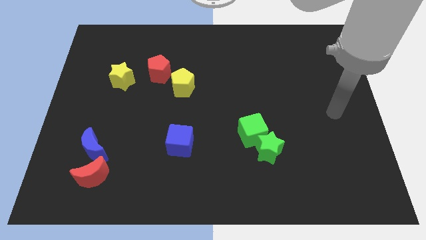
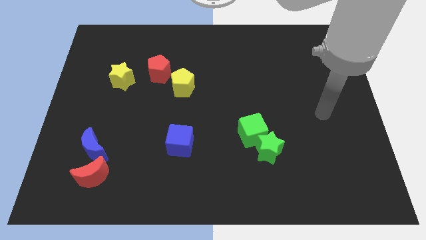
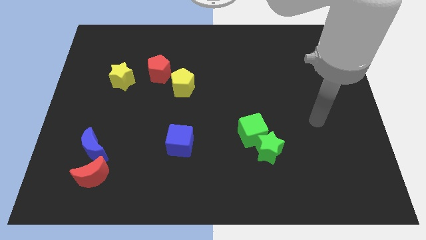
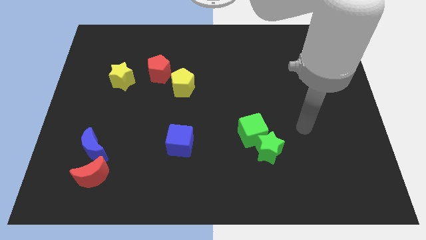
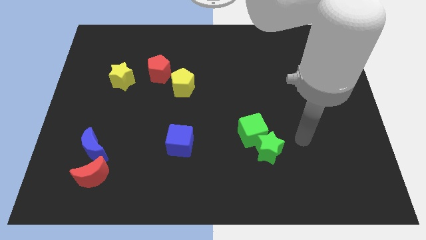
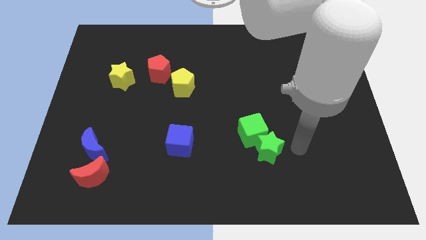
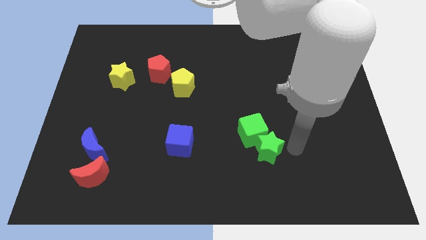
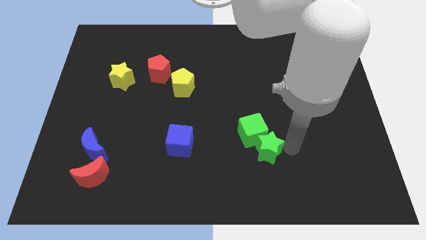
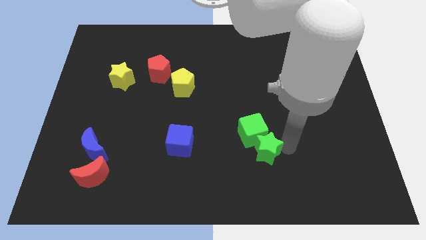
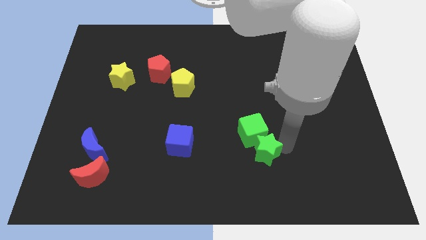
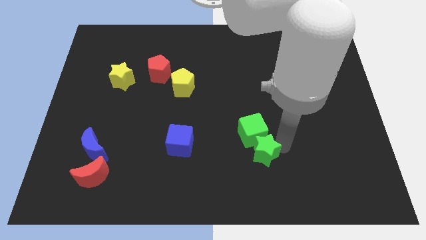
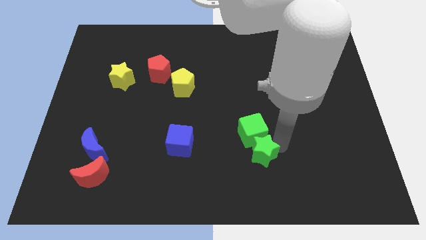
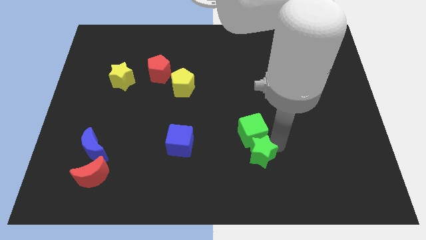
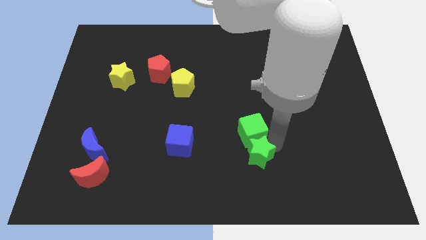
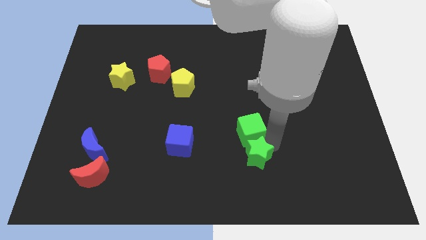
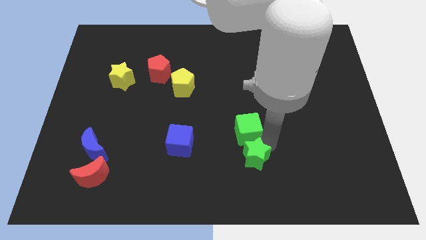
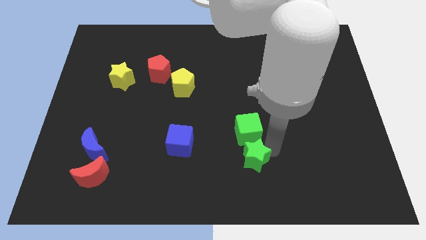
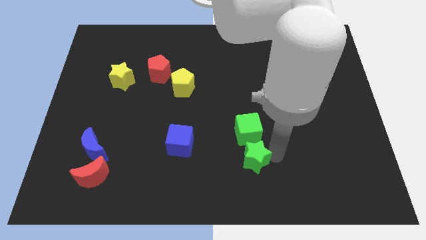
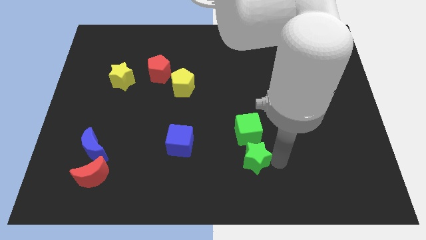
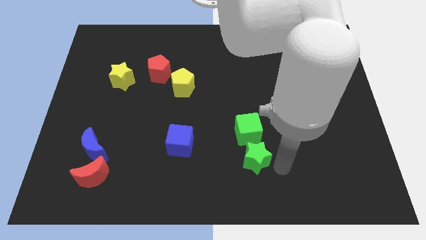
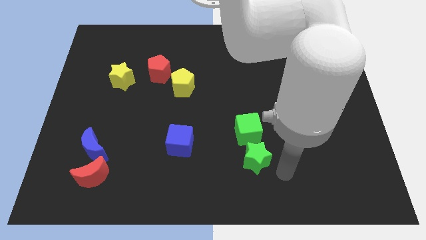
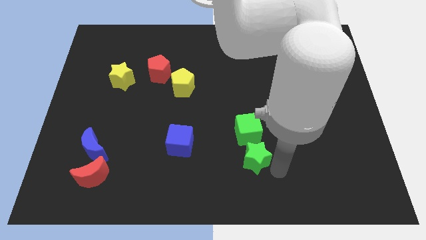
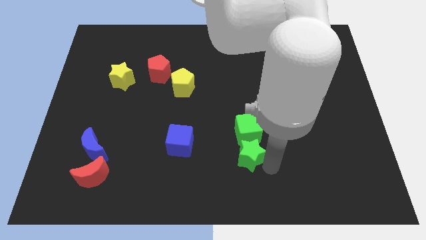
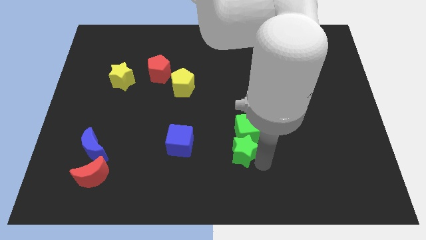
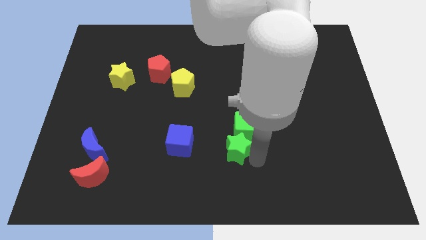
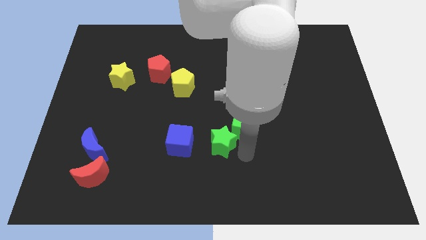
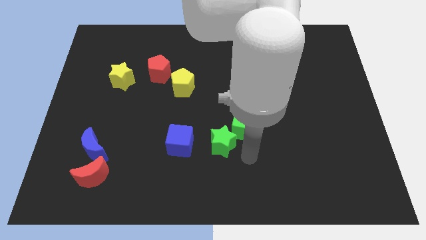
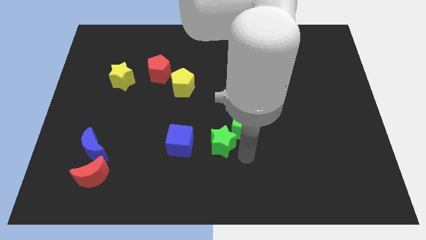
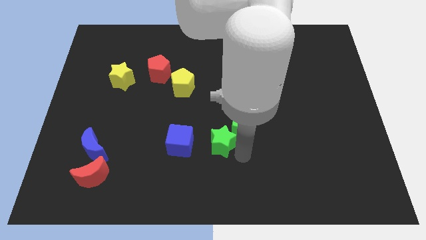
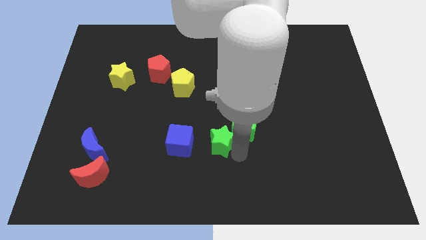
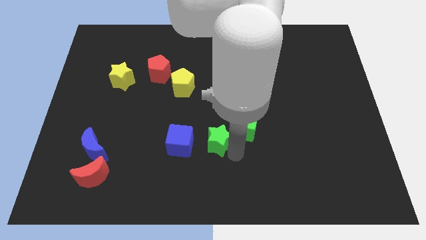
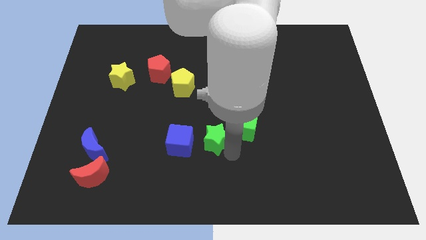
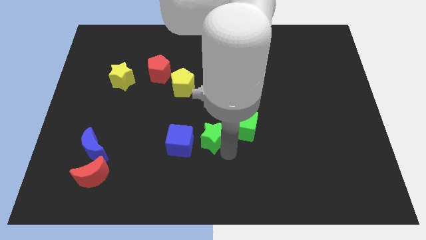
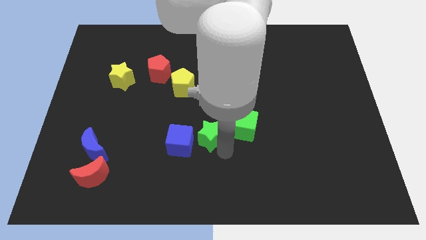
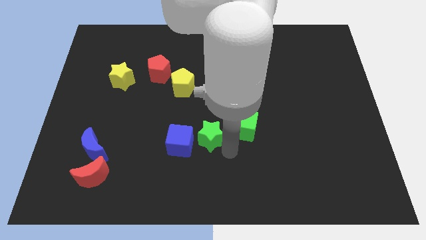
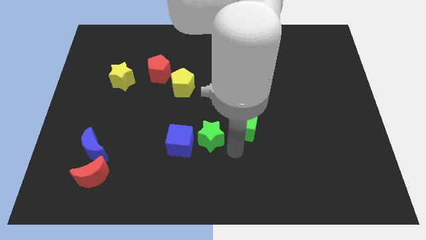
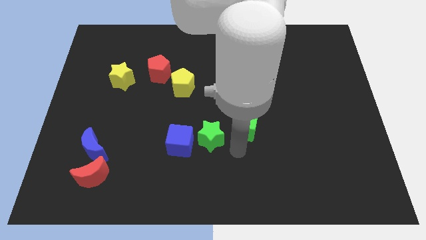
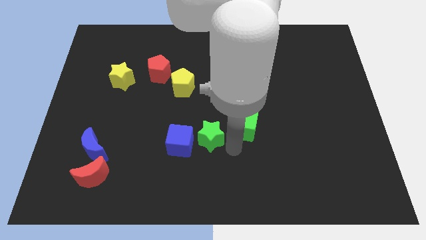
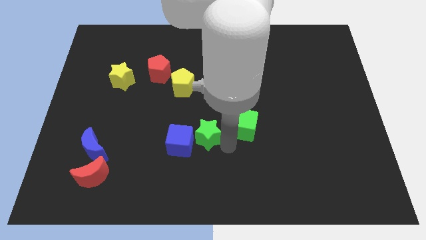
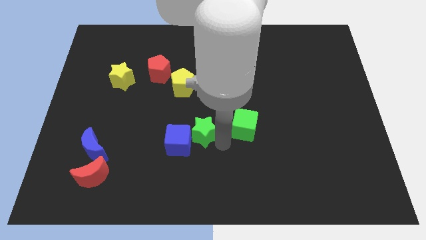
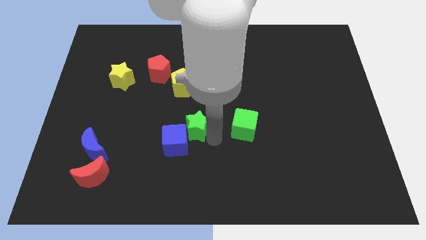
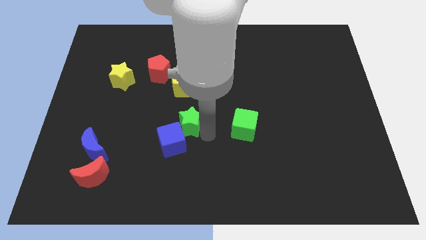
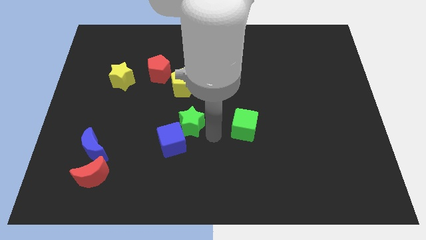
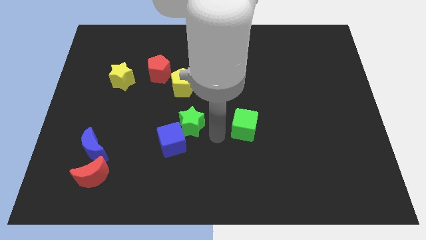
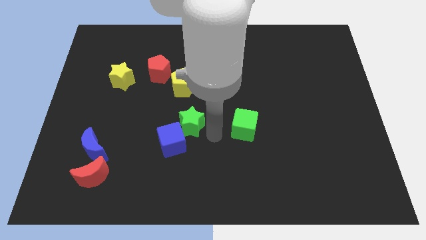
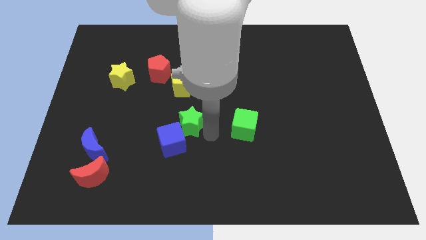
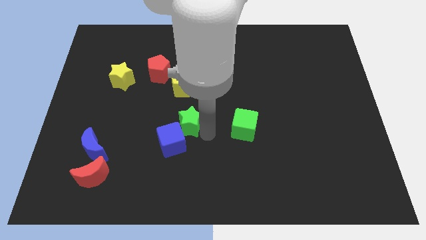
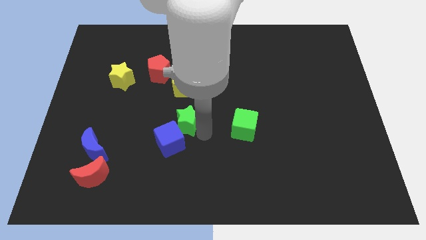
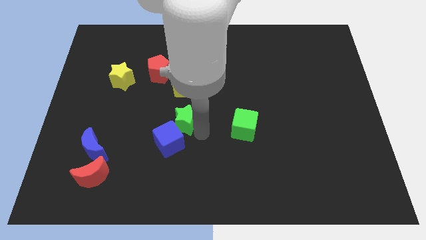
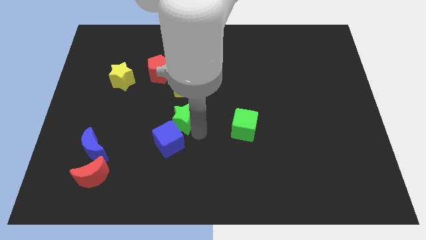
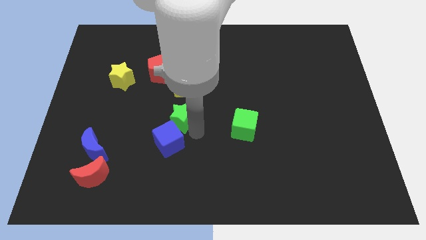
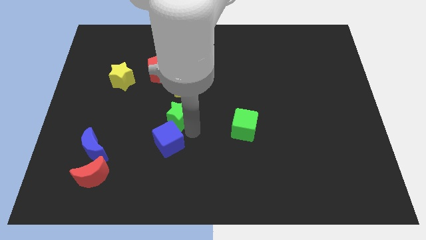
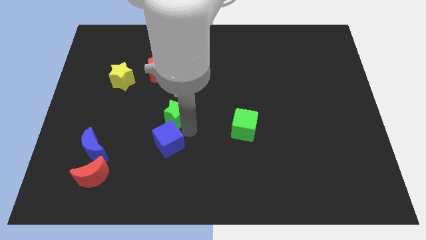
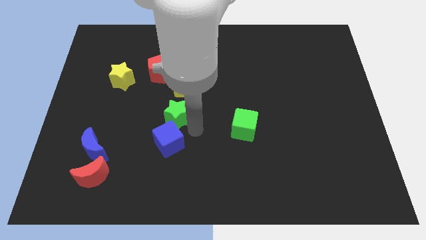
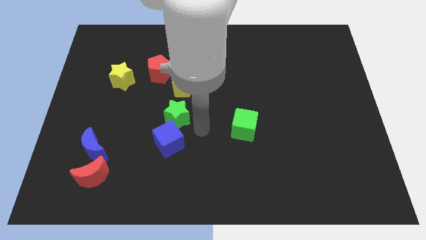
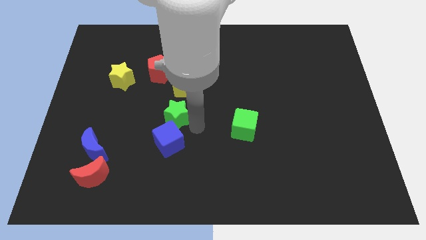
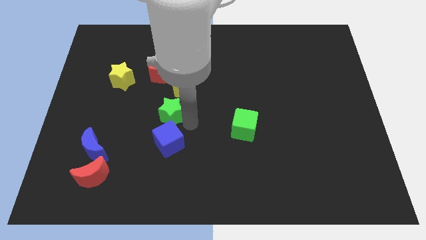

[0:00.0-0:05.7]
put the green star below the red pentagon

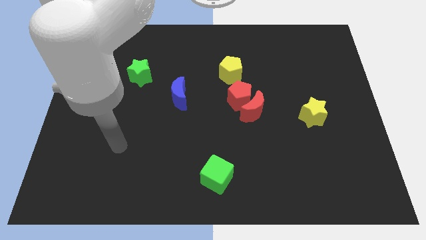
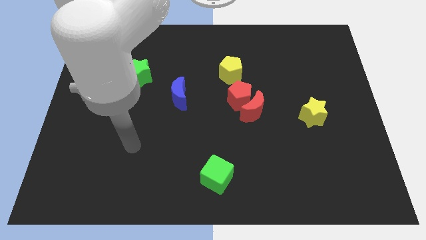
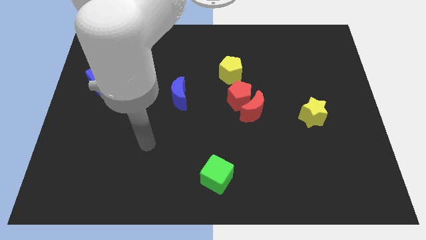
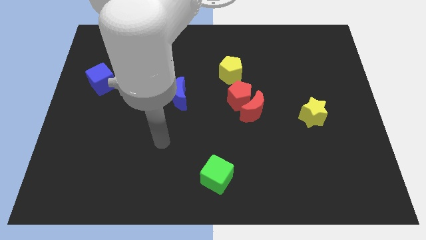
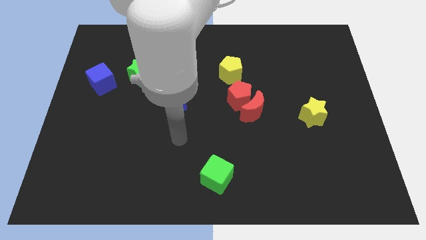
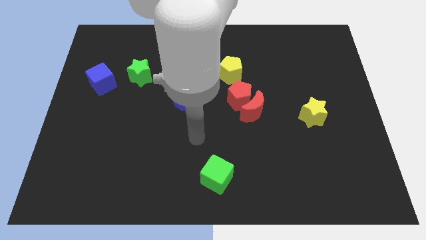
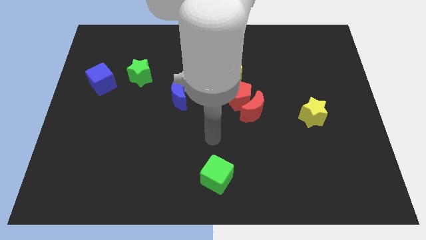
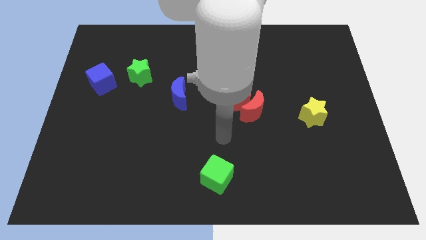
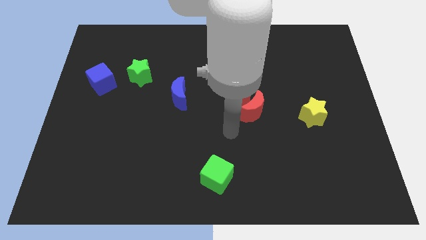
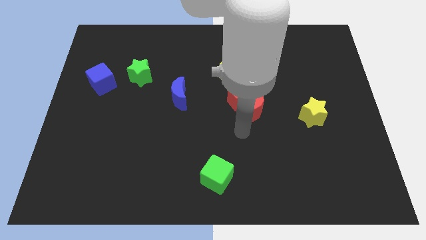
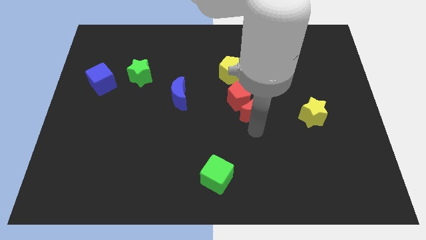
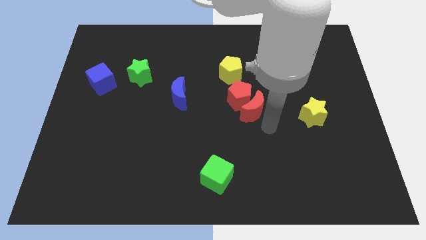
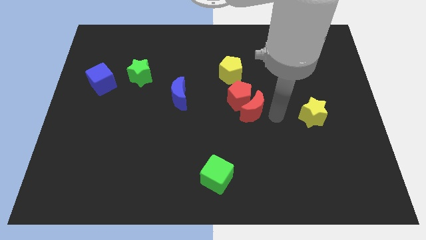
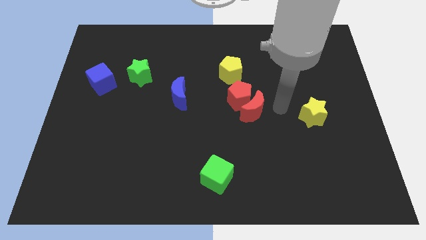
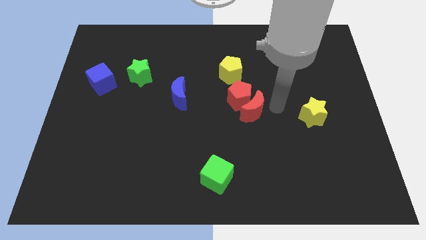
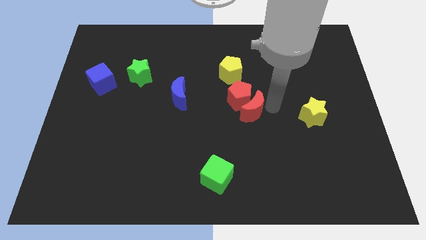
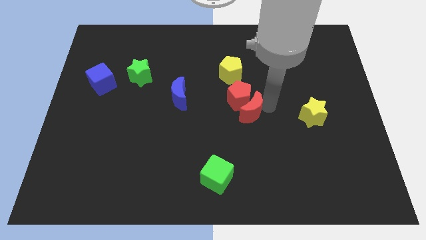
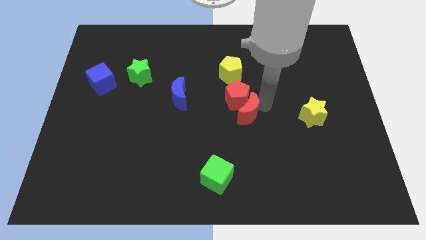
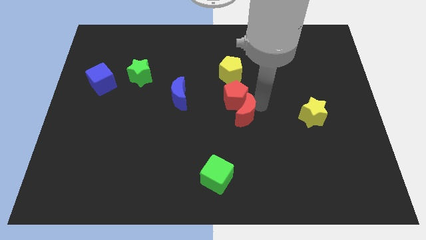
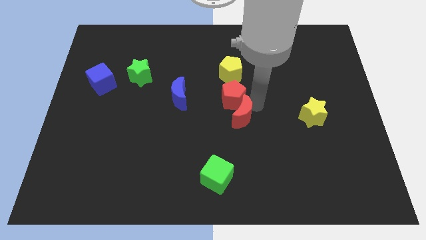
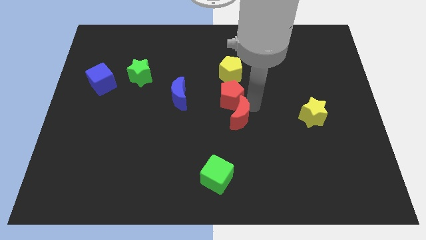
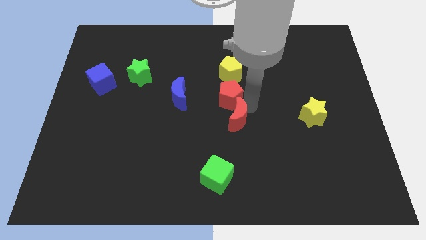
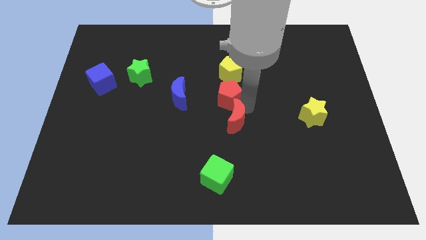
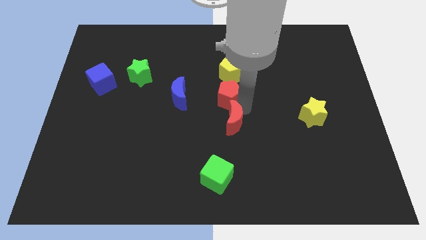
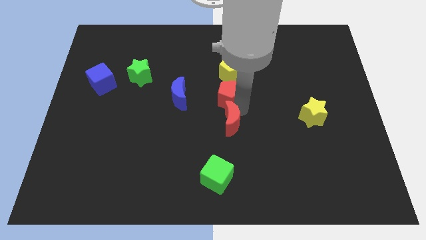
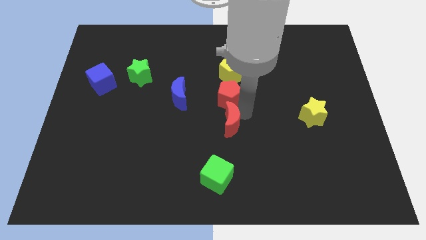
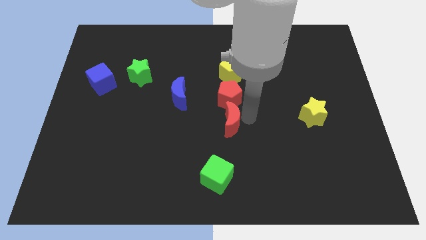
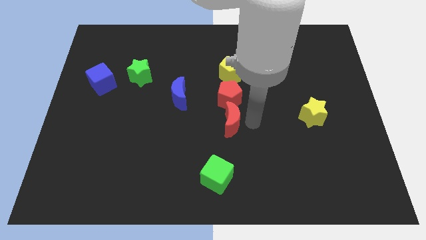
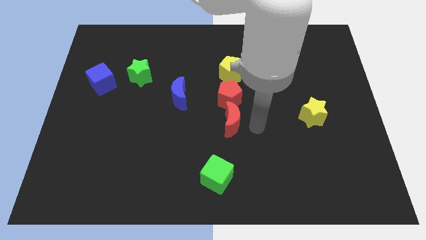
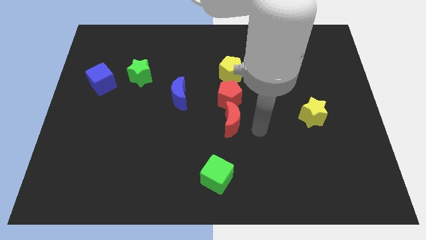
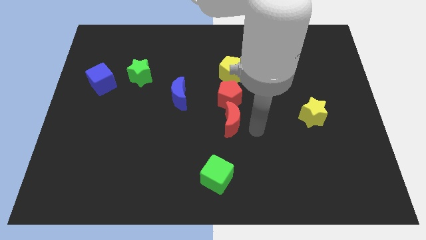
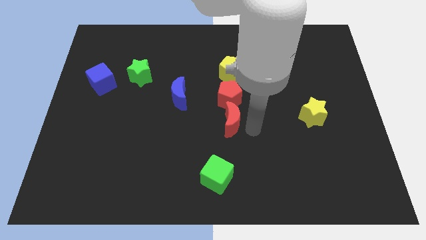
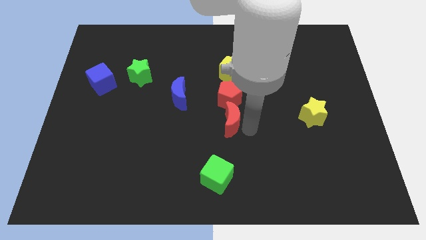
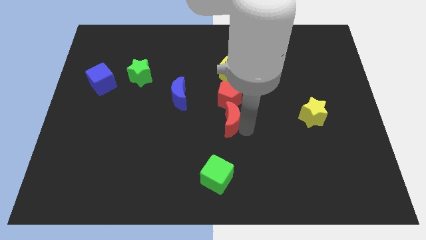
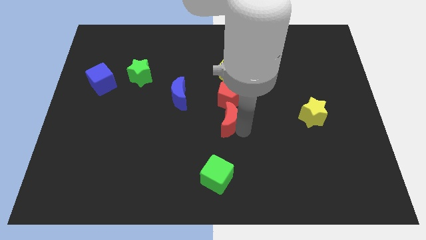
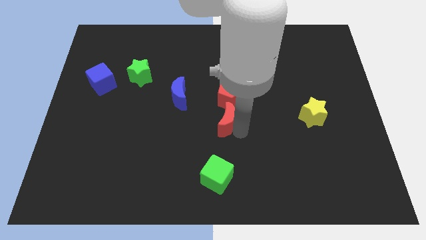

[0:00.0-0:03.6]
move the red moon to the bottom left of the red pentagon
